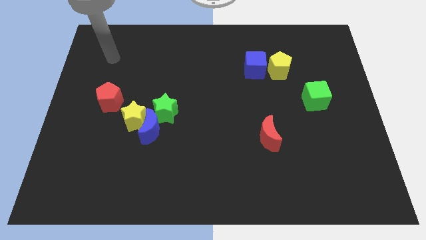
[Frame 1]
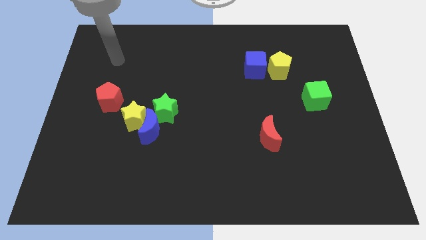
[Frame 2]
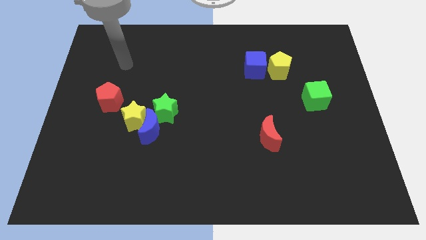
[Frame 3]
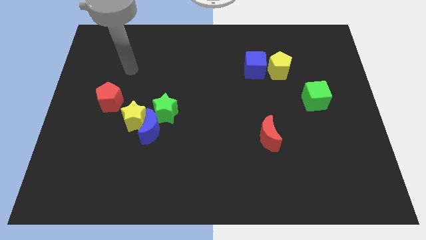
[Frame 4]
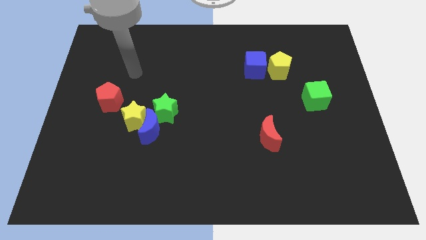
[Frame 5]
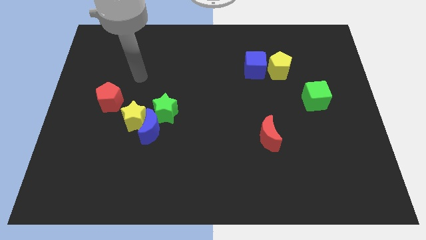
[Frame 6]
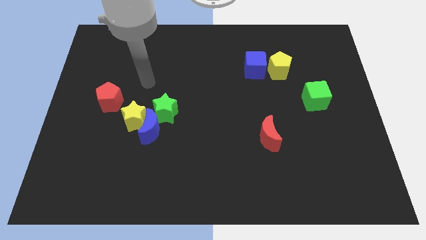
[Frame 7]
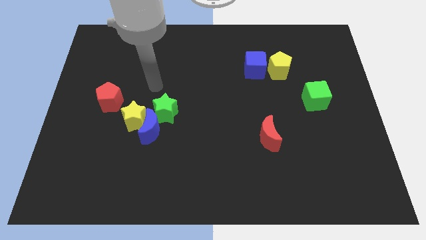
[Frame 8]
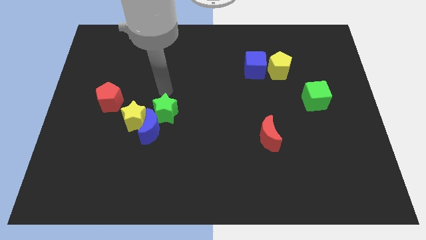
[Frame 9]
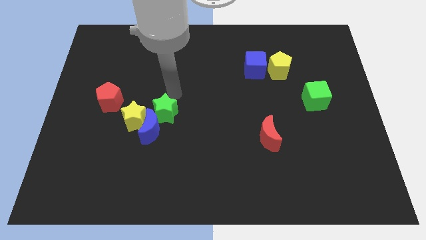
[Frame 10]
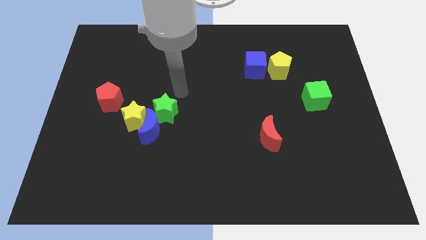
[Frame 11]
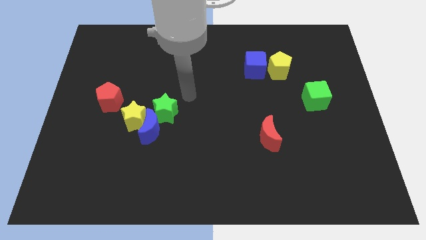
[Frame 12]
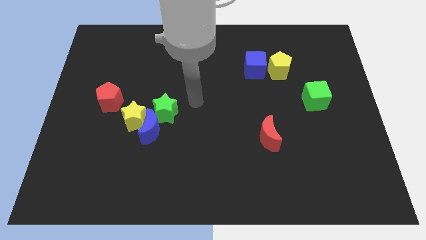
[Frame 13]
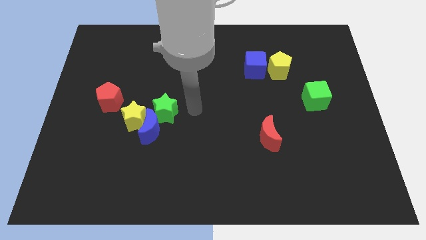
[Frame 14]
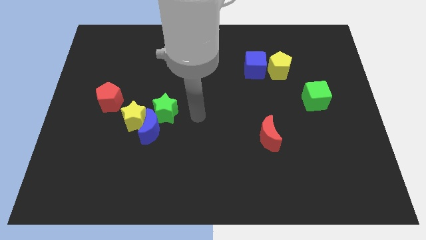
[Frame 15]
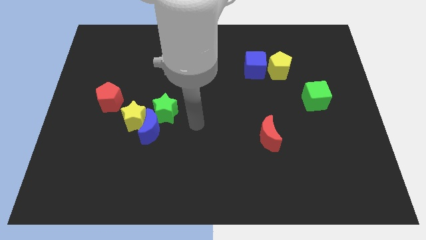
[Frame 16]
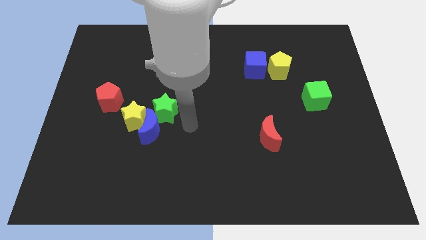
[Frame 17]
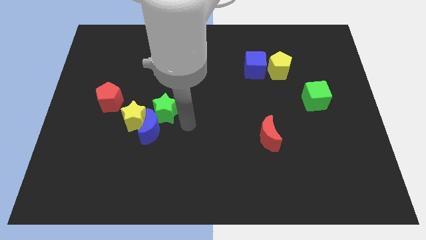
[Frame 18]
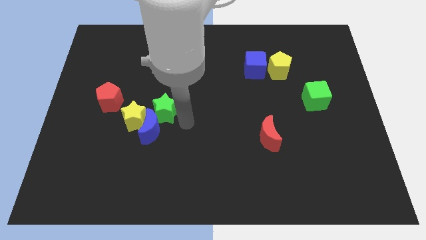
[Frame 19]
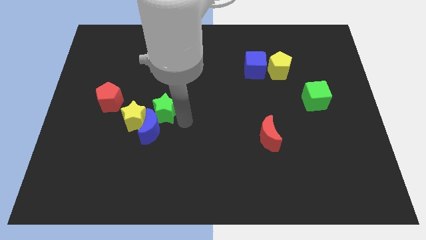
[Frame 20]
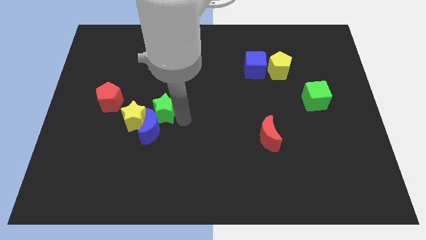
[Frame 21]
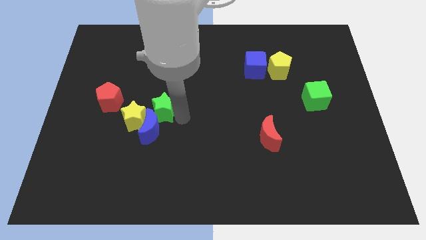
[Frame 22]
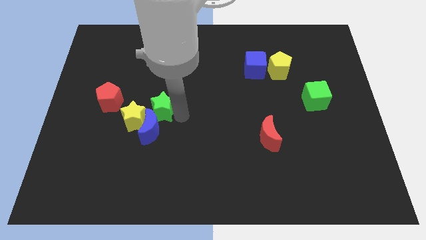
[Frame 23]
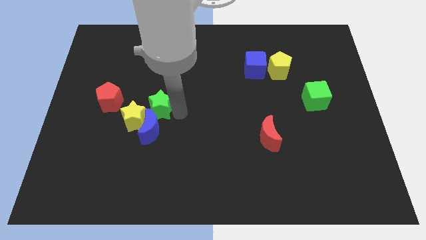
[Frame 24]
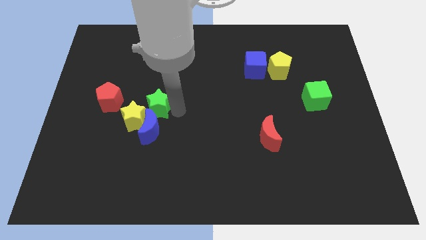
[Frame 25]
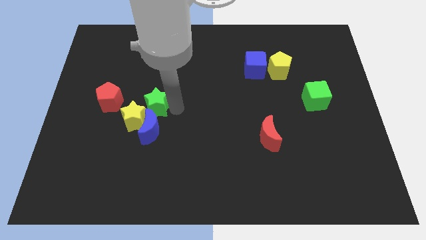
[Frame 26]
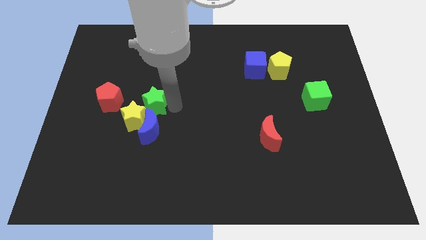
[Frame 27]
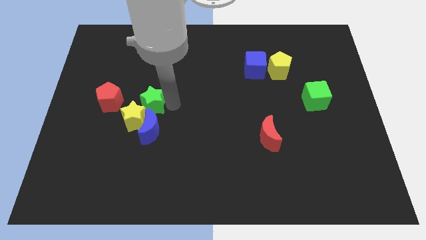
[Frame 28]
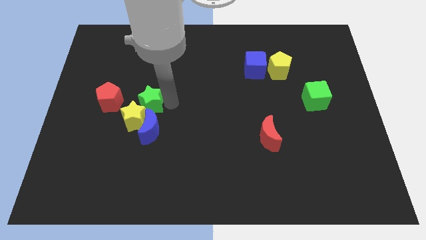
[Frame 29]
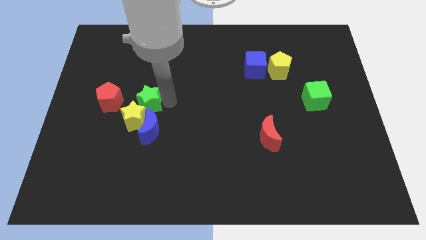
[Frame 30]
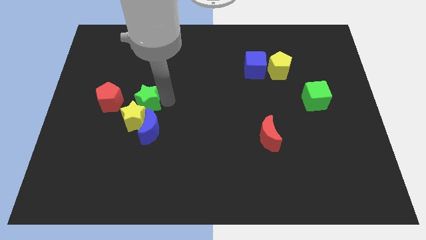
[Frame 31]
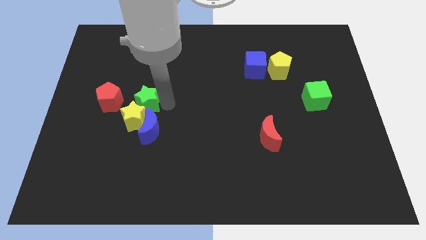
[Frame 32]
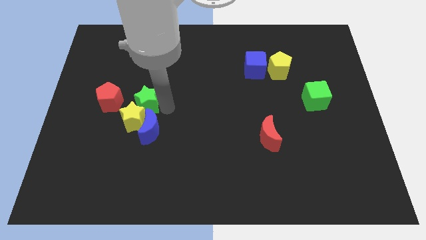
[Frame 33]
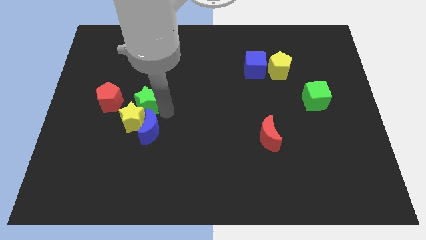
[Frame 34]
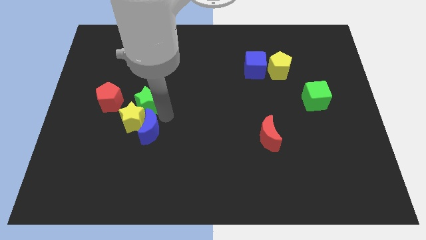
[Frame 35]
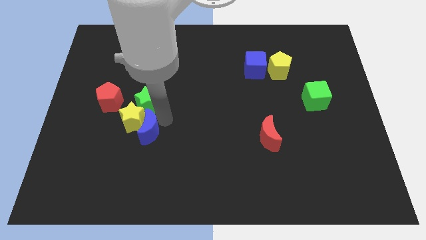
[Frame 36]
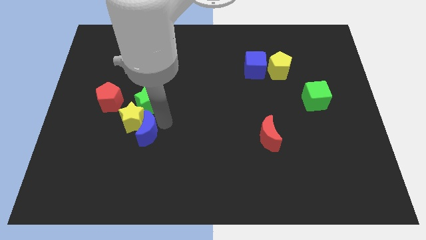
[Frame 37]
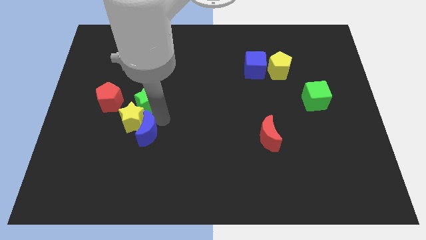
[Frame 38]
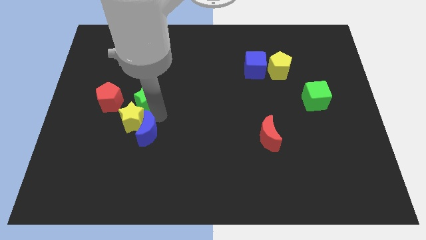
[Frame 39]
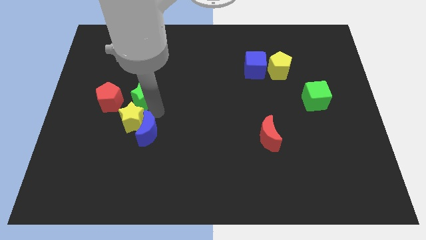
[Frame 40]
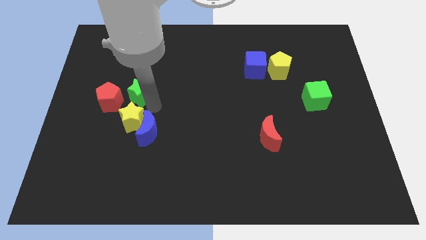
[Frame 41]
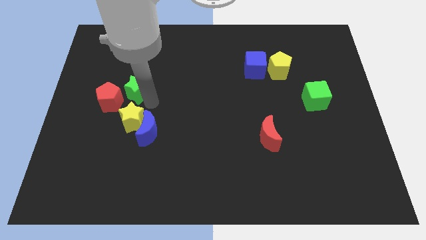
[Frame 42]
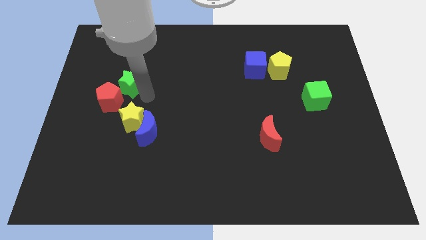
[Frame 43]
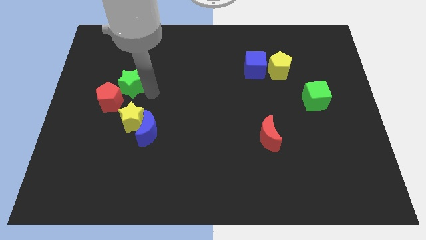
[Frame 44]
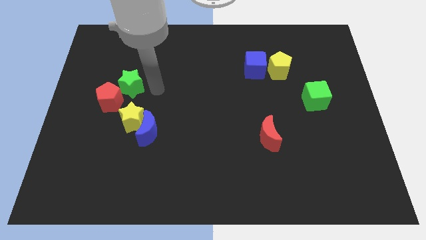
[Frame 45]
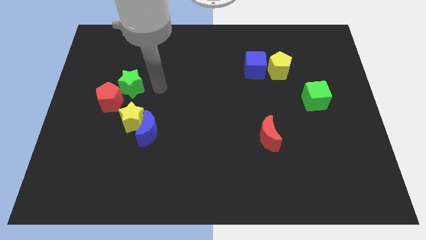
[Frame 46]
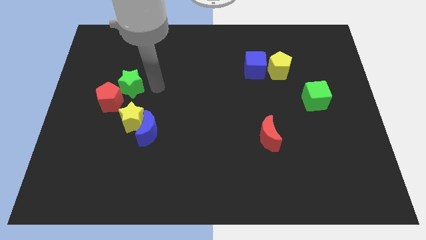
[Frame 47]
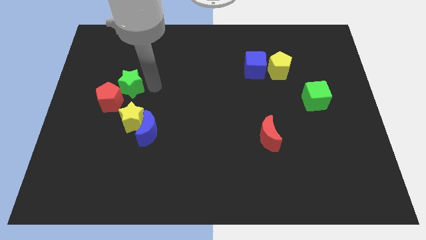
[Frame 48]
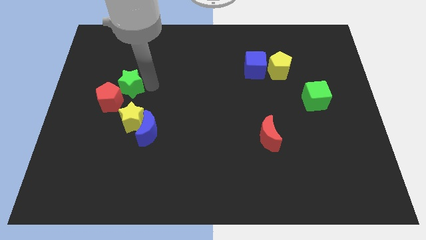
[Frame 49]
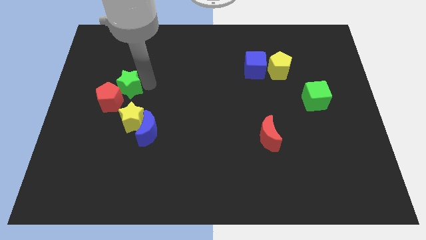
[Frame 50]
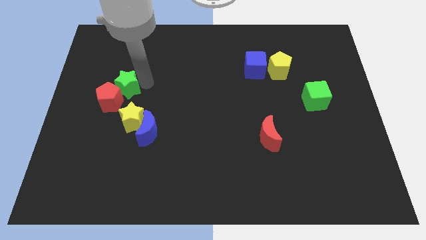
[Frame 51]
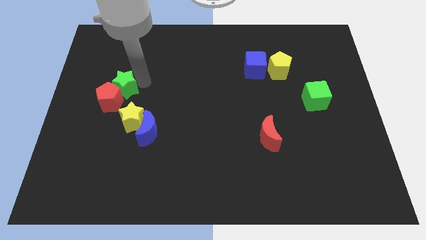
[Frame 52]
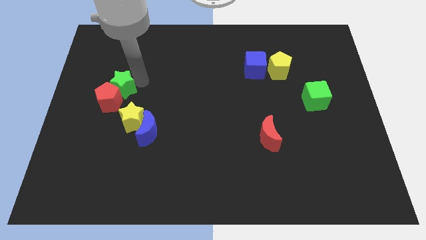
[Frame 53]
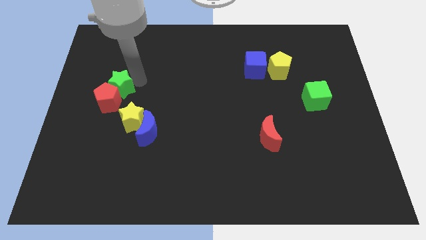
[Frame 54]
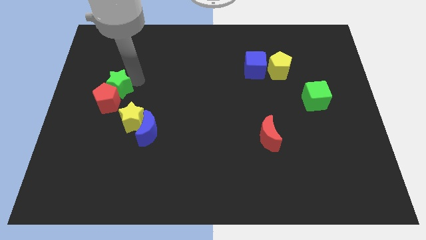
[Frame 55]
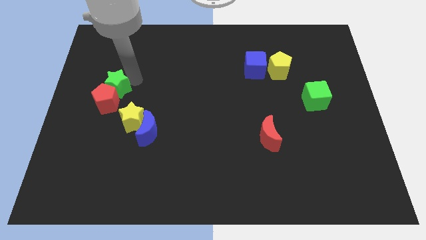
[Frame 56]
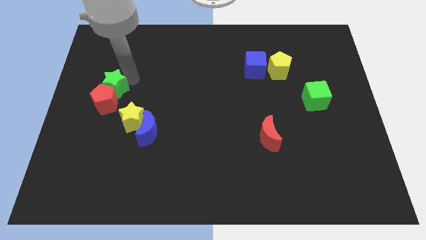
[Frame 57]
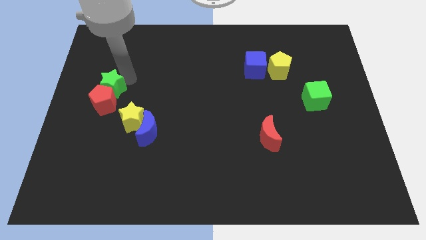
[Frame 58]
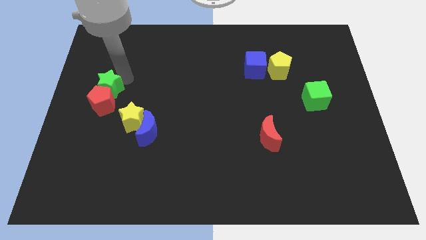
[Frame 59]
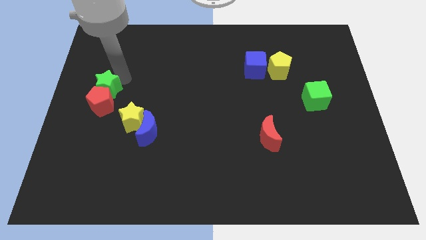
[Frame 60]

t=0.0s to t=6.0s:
put the green star to the left side of the board

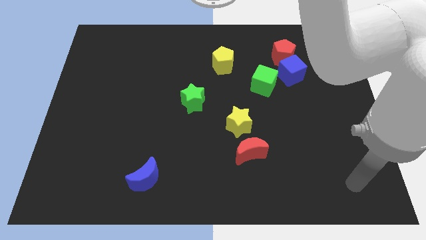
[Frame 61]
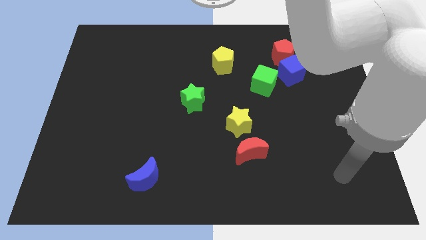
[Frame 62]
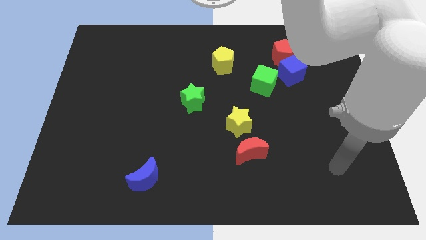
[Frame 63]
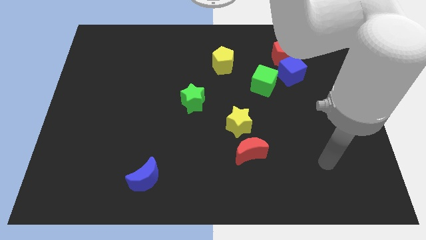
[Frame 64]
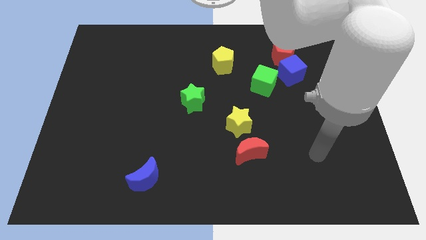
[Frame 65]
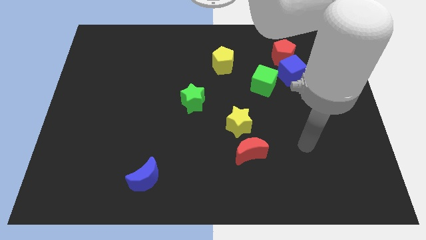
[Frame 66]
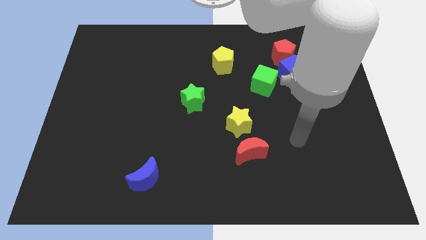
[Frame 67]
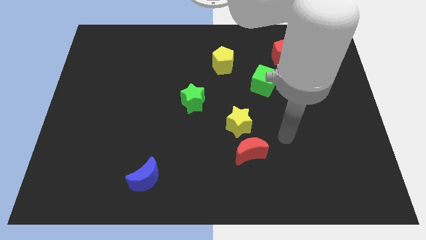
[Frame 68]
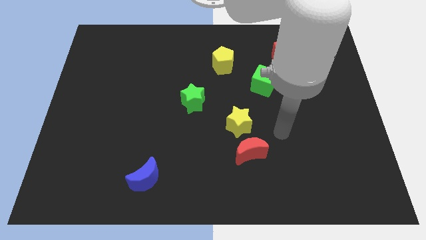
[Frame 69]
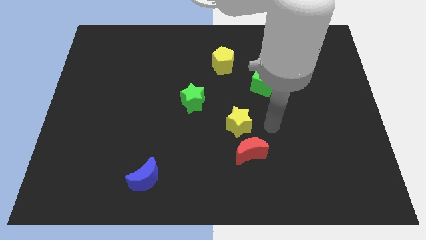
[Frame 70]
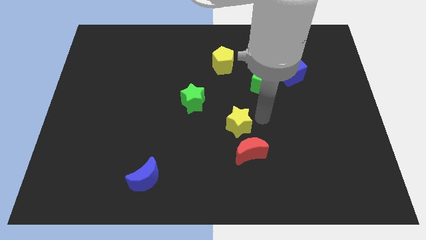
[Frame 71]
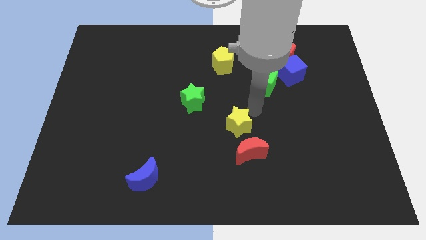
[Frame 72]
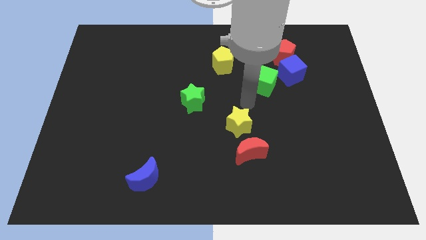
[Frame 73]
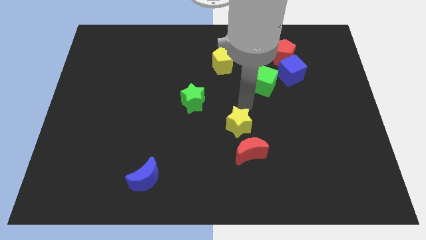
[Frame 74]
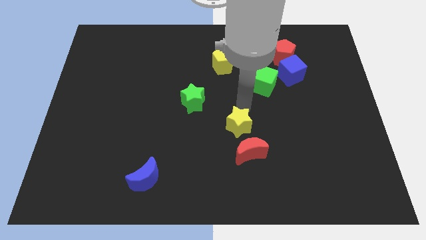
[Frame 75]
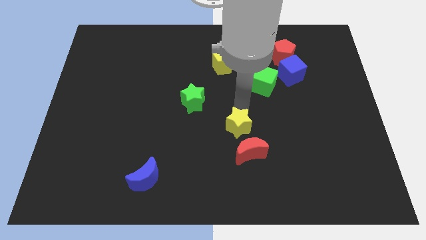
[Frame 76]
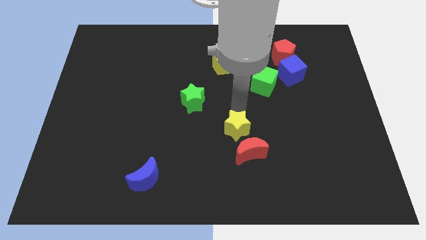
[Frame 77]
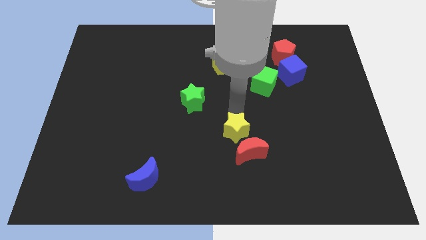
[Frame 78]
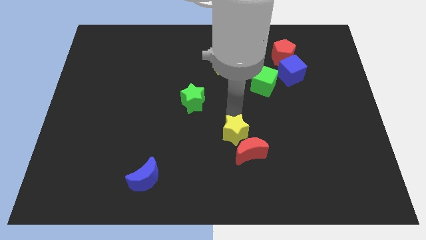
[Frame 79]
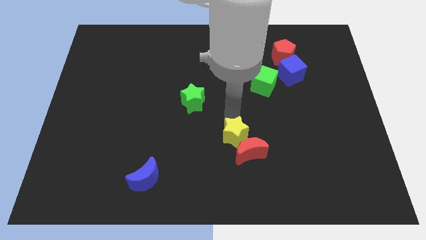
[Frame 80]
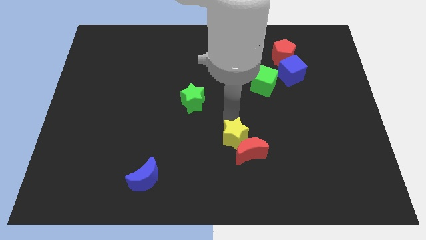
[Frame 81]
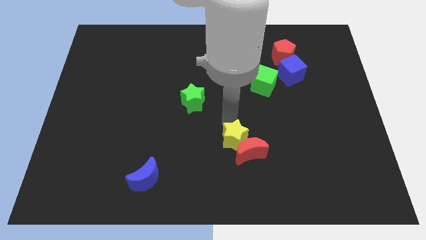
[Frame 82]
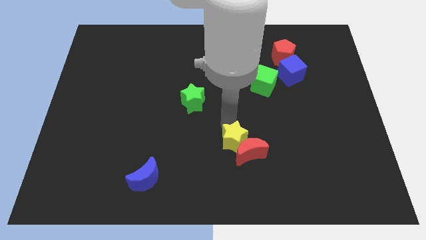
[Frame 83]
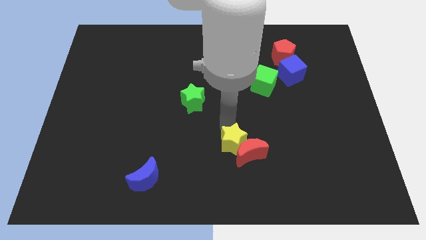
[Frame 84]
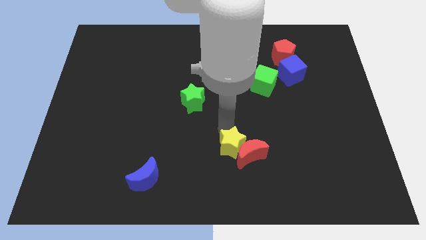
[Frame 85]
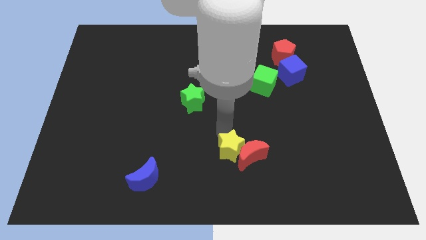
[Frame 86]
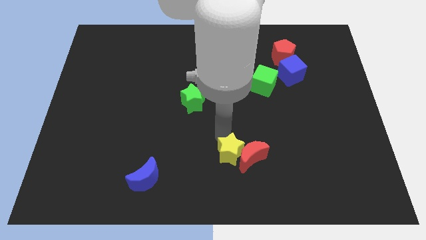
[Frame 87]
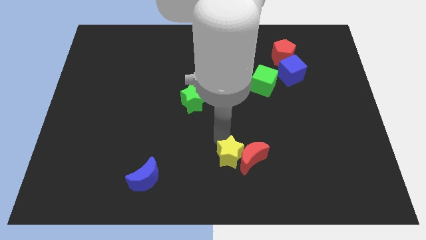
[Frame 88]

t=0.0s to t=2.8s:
move the yellow star to the bottom side
